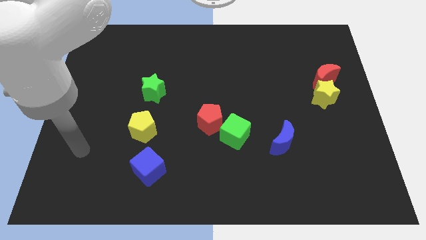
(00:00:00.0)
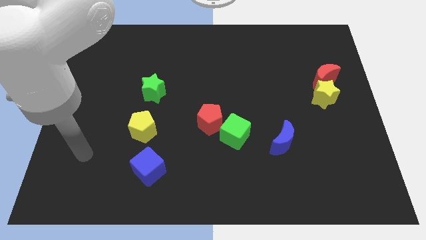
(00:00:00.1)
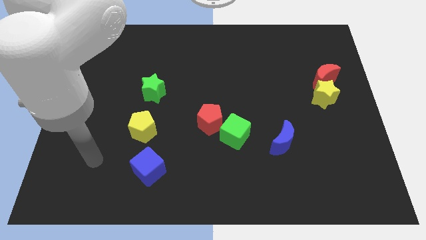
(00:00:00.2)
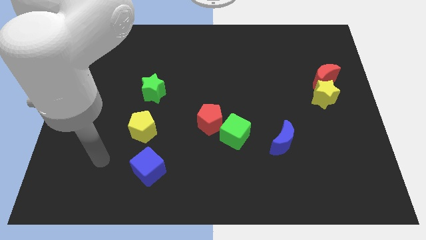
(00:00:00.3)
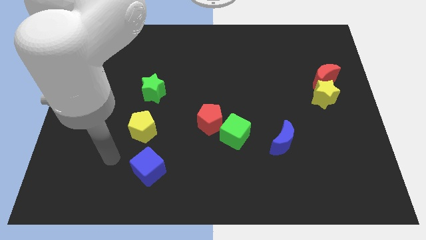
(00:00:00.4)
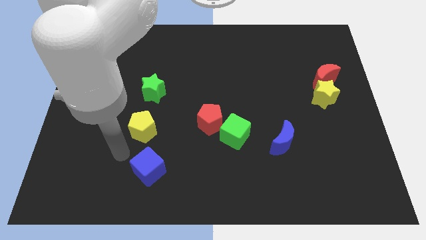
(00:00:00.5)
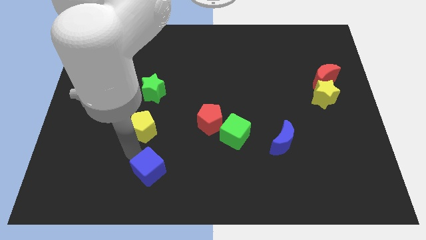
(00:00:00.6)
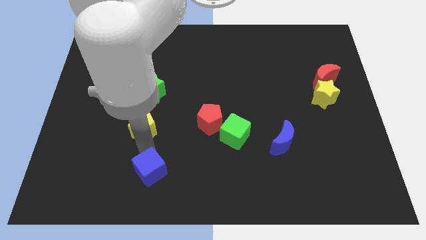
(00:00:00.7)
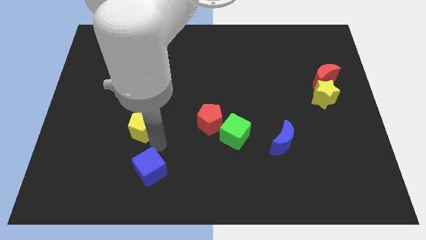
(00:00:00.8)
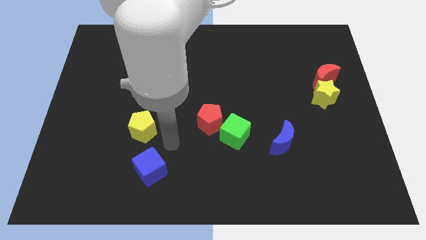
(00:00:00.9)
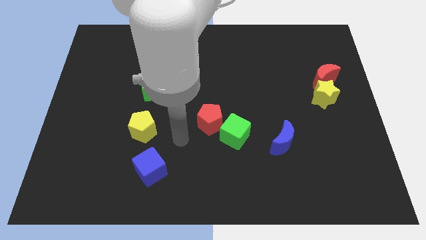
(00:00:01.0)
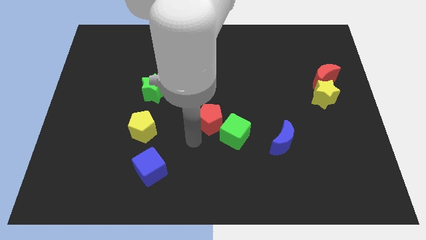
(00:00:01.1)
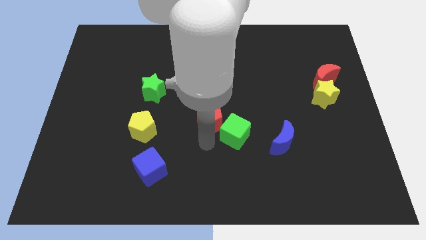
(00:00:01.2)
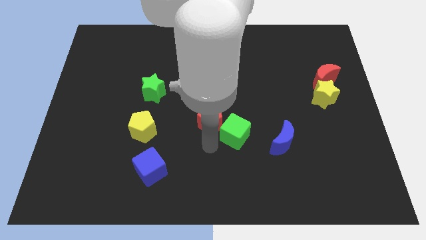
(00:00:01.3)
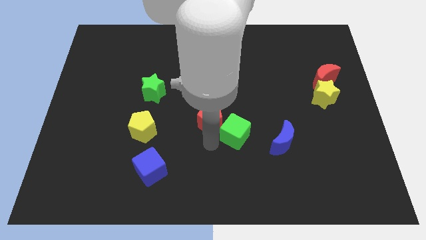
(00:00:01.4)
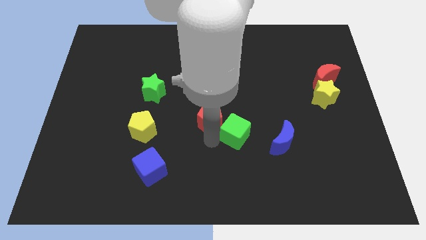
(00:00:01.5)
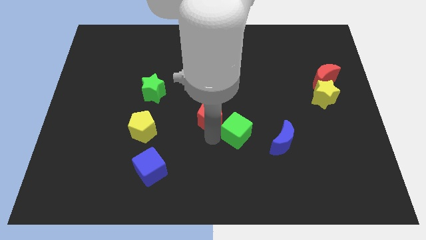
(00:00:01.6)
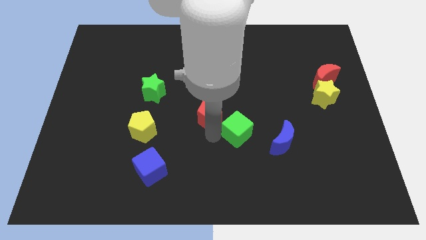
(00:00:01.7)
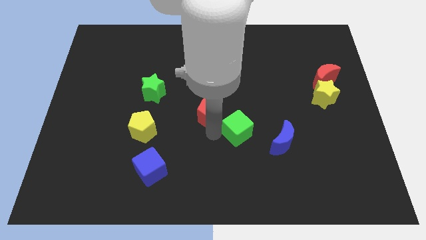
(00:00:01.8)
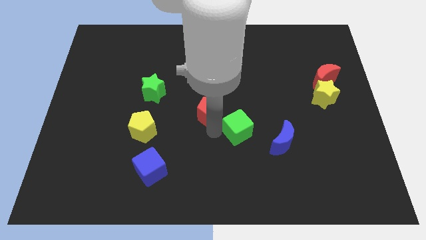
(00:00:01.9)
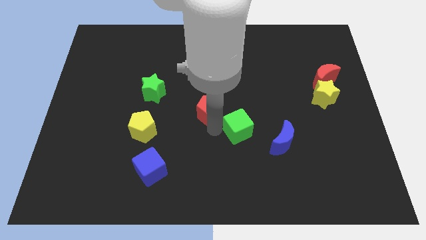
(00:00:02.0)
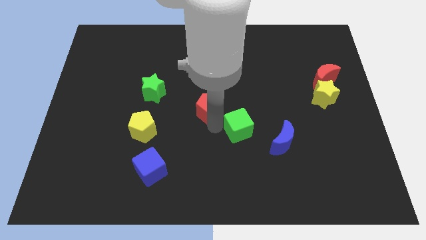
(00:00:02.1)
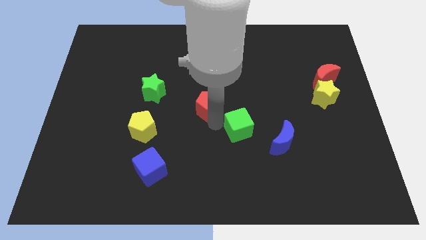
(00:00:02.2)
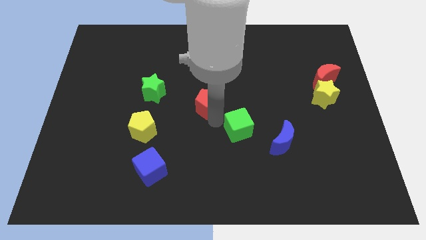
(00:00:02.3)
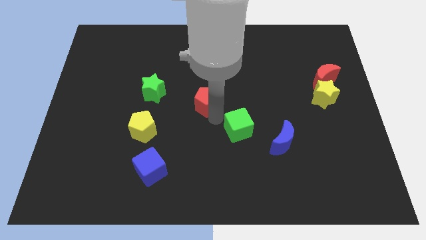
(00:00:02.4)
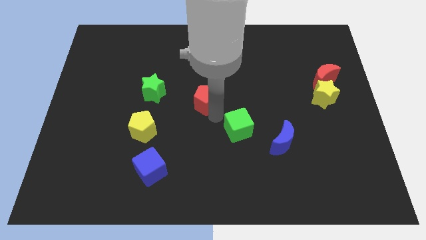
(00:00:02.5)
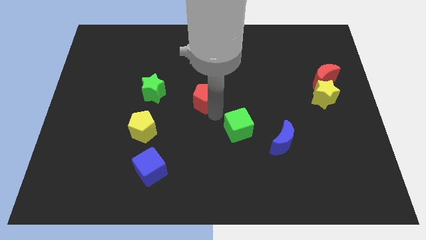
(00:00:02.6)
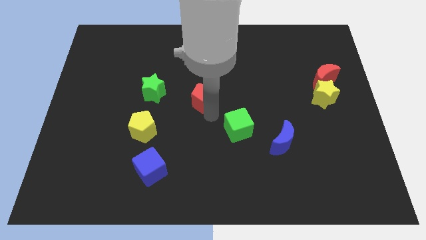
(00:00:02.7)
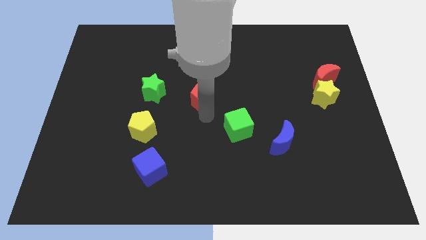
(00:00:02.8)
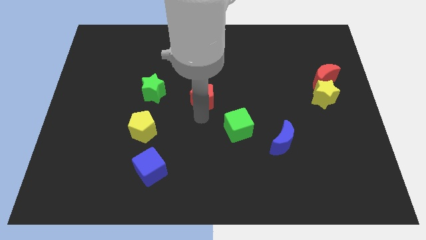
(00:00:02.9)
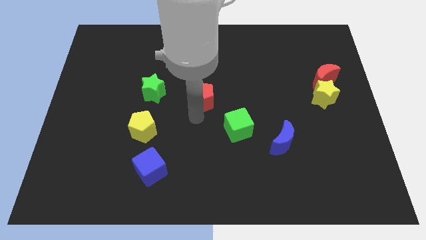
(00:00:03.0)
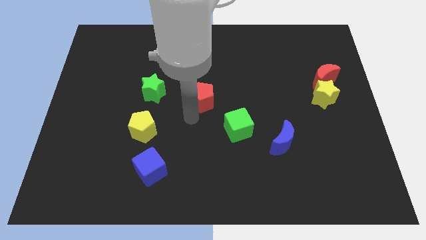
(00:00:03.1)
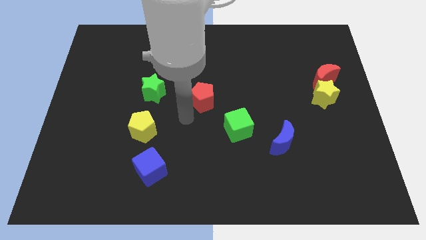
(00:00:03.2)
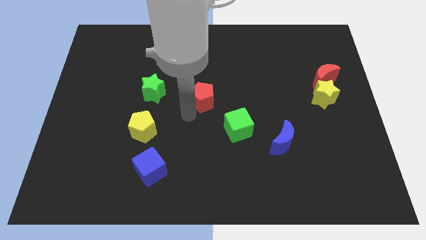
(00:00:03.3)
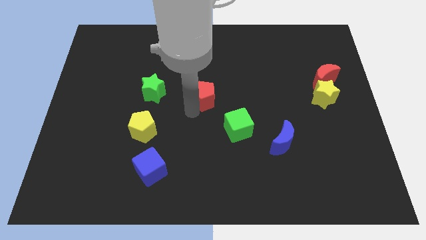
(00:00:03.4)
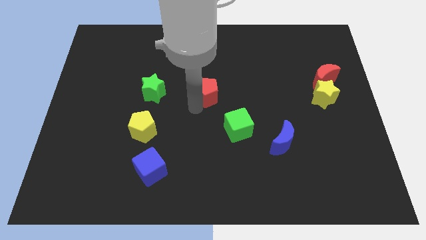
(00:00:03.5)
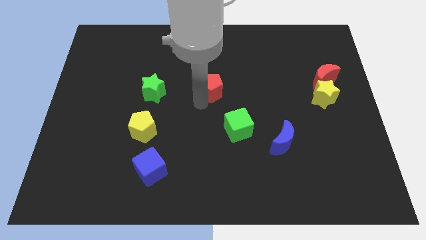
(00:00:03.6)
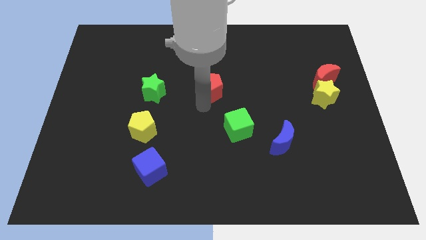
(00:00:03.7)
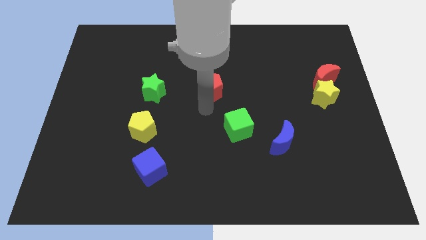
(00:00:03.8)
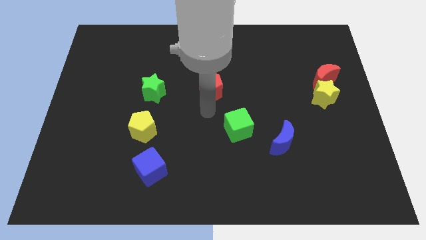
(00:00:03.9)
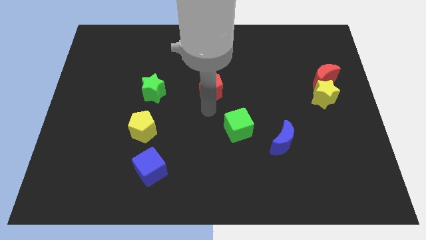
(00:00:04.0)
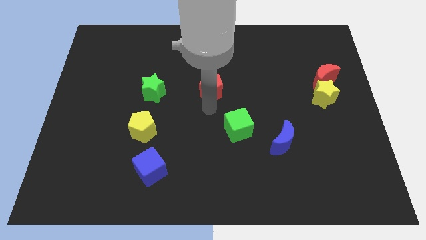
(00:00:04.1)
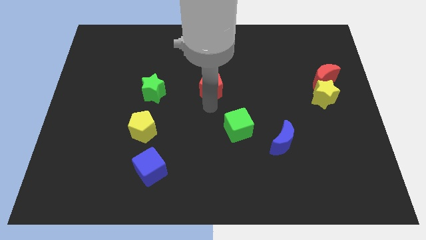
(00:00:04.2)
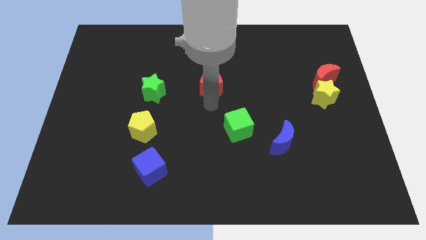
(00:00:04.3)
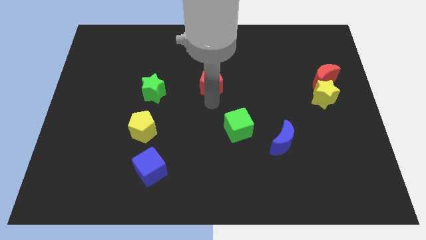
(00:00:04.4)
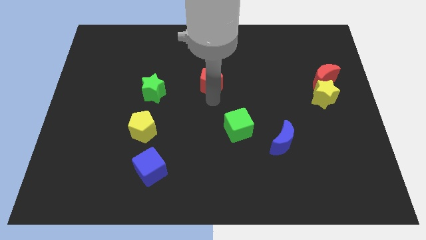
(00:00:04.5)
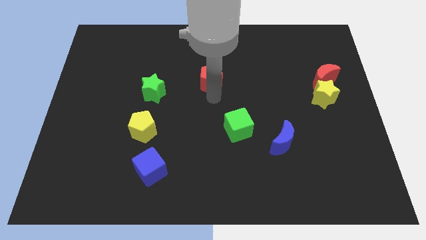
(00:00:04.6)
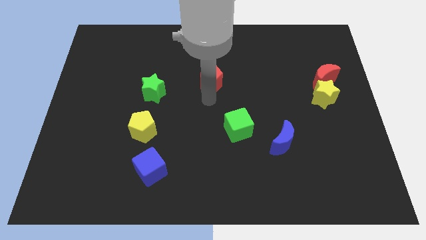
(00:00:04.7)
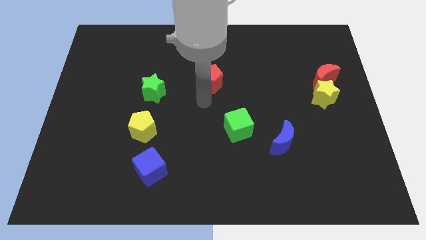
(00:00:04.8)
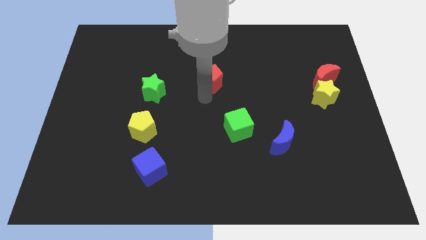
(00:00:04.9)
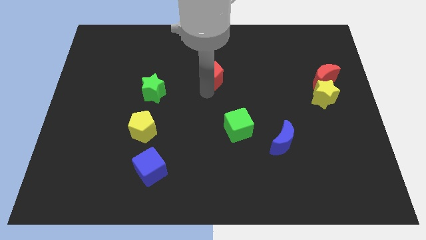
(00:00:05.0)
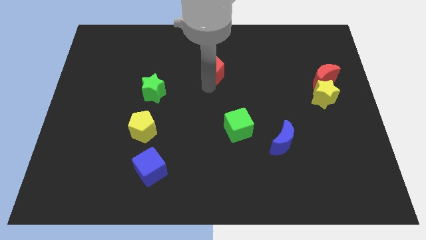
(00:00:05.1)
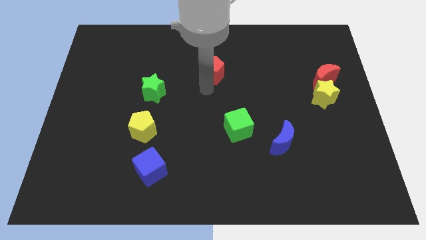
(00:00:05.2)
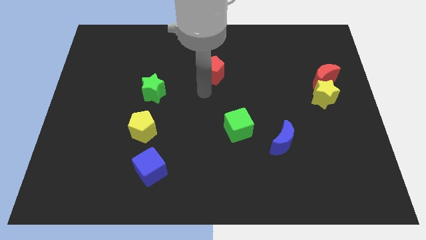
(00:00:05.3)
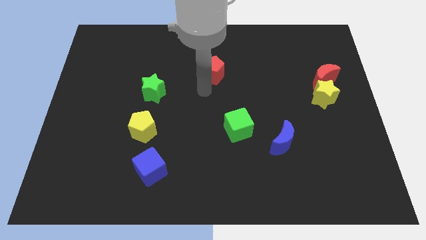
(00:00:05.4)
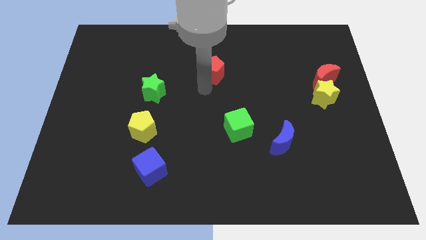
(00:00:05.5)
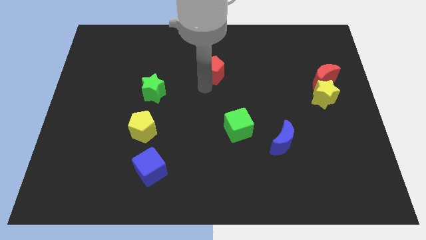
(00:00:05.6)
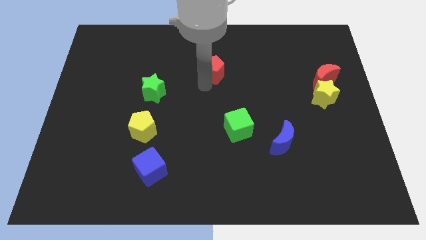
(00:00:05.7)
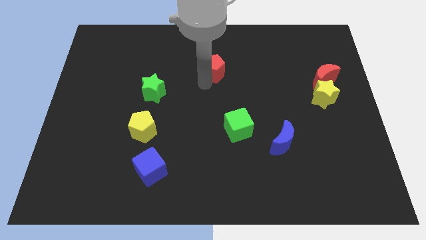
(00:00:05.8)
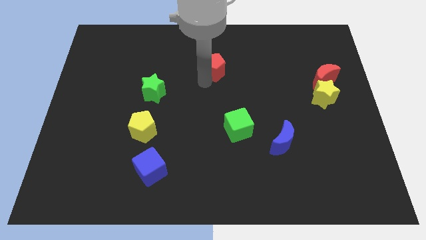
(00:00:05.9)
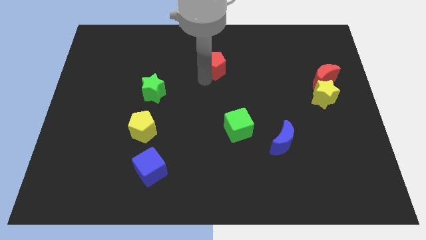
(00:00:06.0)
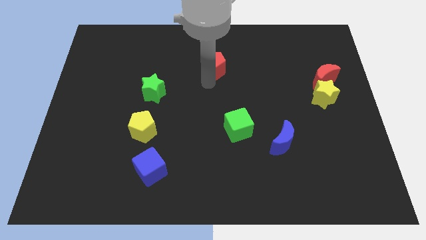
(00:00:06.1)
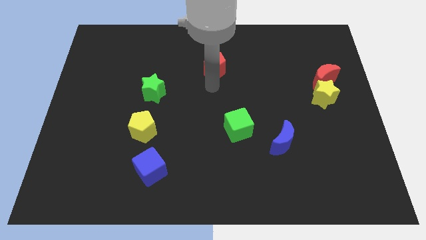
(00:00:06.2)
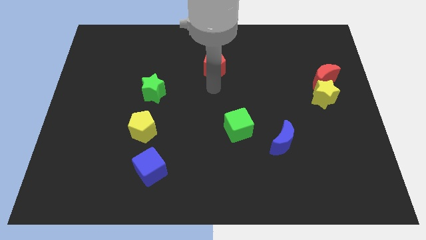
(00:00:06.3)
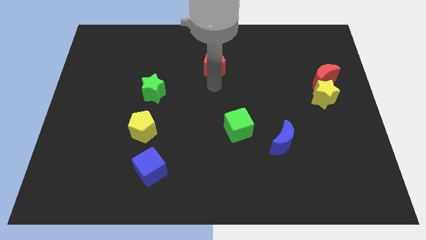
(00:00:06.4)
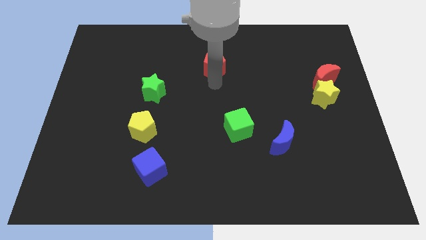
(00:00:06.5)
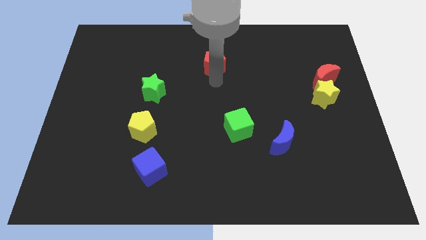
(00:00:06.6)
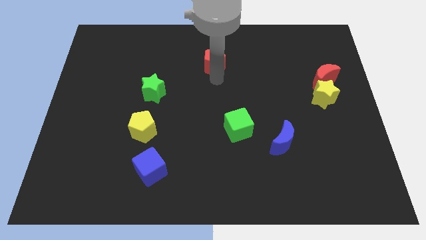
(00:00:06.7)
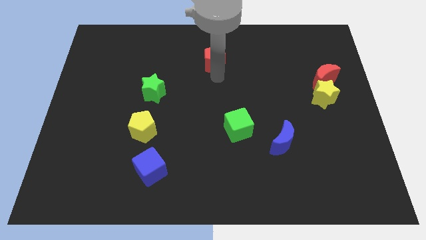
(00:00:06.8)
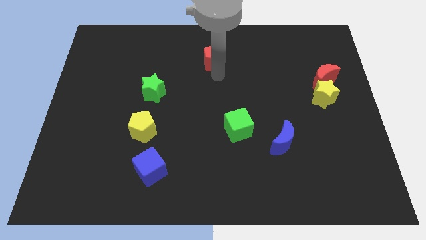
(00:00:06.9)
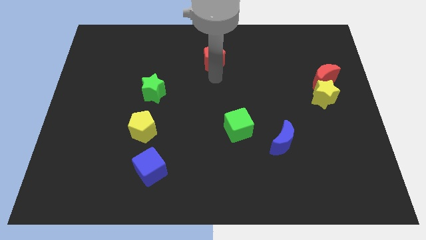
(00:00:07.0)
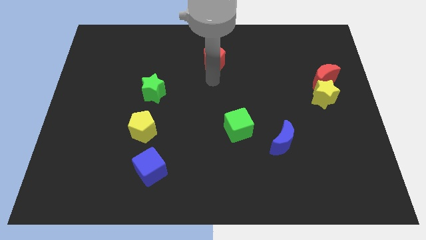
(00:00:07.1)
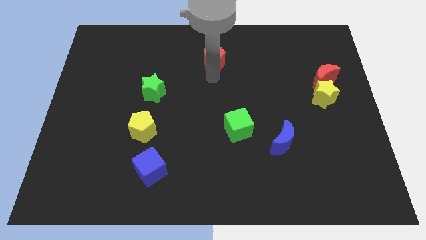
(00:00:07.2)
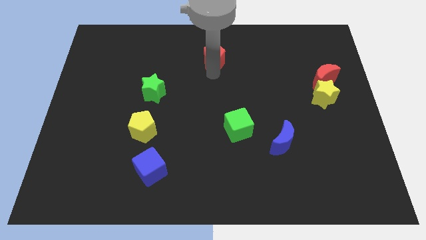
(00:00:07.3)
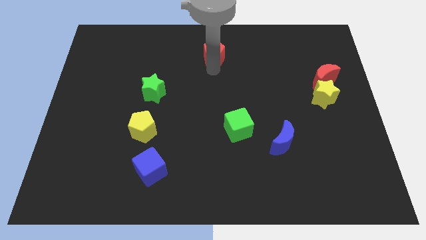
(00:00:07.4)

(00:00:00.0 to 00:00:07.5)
push the red pentagon to the towards your base
